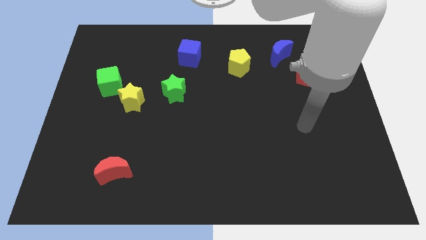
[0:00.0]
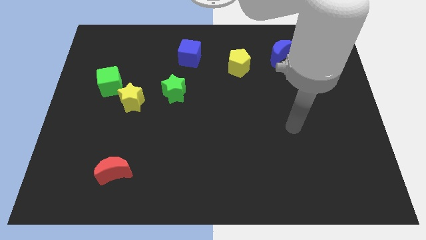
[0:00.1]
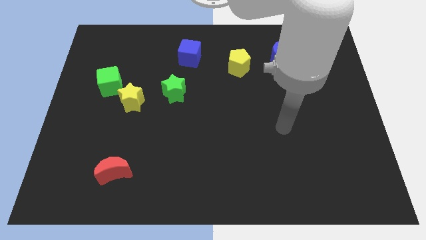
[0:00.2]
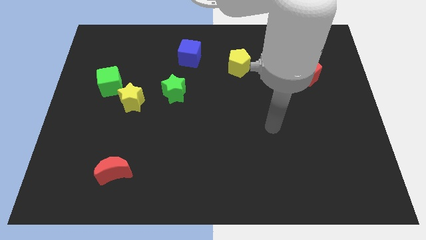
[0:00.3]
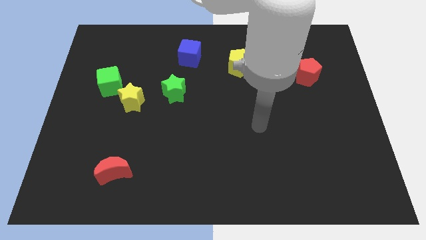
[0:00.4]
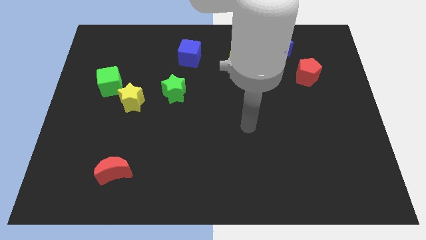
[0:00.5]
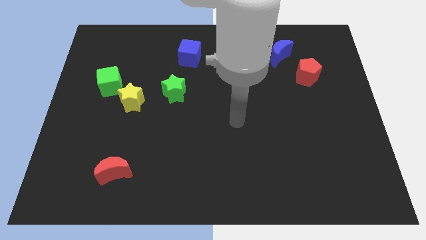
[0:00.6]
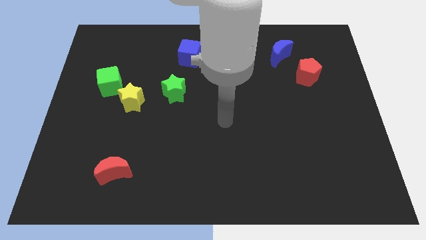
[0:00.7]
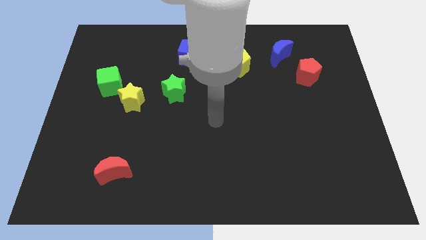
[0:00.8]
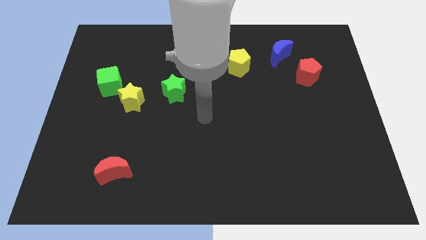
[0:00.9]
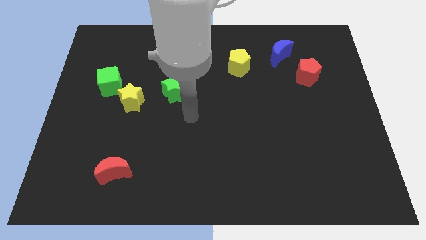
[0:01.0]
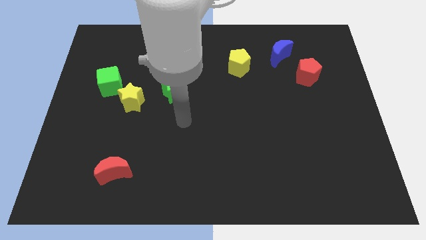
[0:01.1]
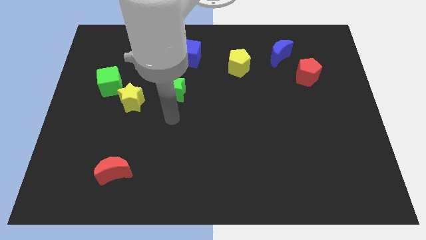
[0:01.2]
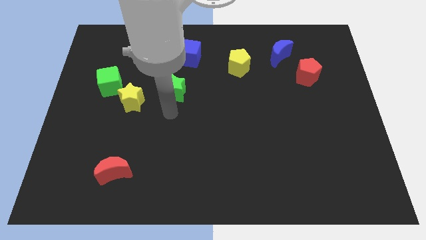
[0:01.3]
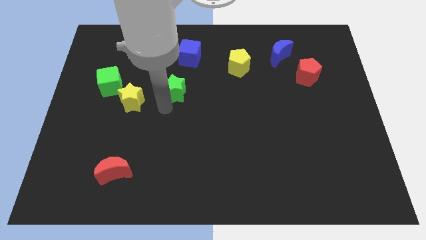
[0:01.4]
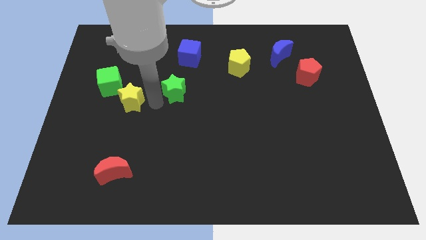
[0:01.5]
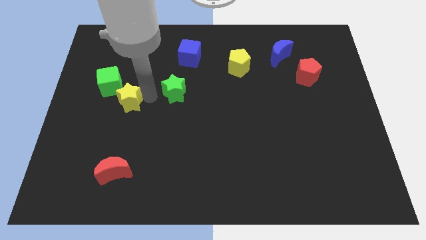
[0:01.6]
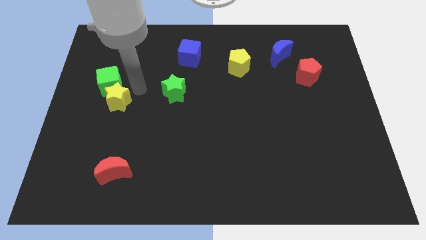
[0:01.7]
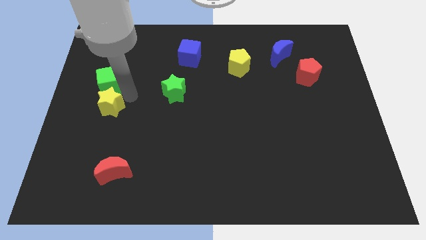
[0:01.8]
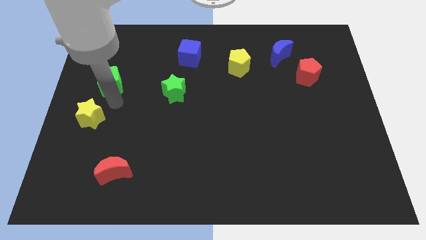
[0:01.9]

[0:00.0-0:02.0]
separate the green cube from the yellow star

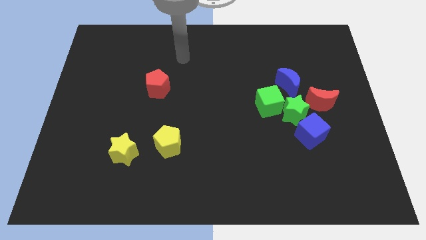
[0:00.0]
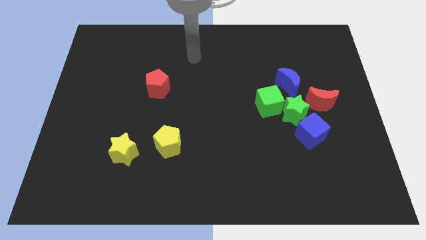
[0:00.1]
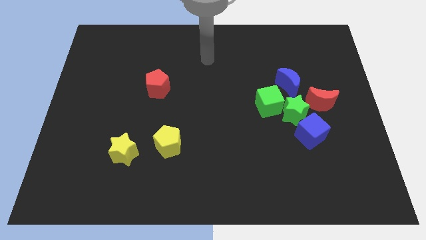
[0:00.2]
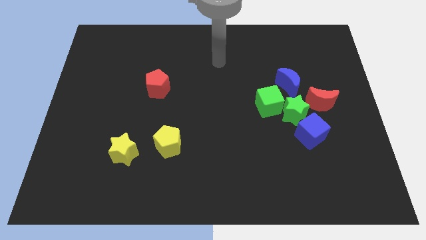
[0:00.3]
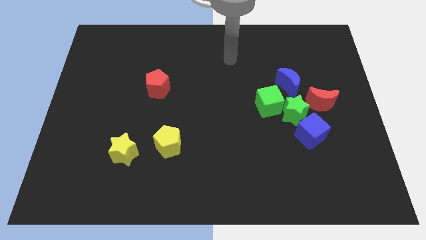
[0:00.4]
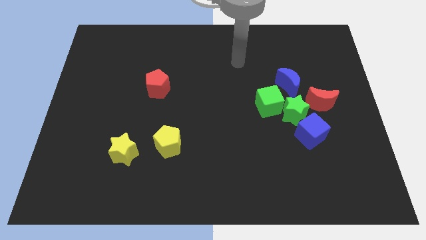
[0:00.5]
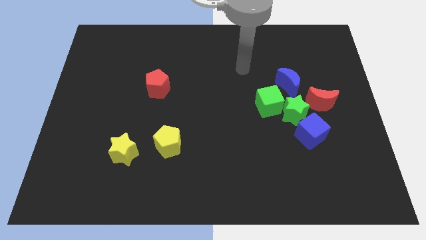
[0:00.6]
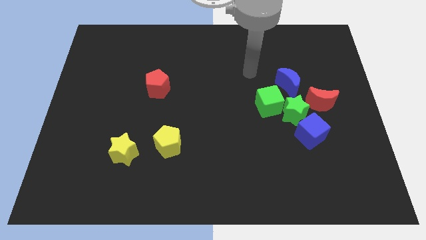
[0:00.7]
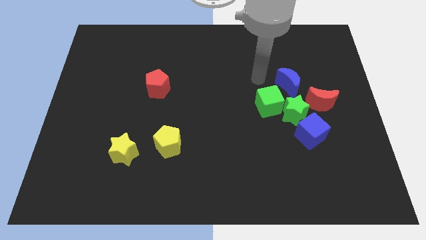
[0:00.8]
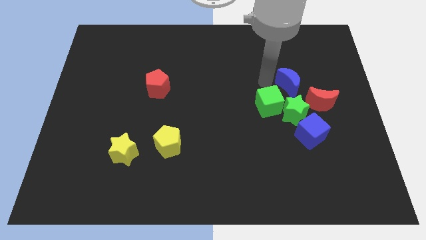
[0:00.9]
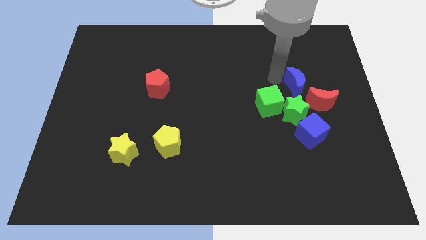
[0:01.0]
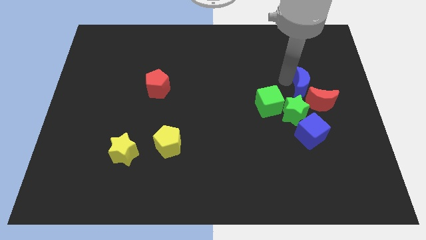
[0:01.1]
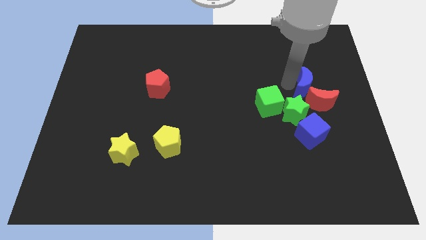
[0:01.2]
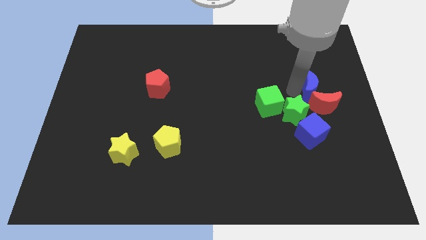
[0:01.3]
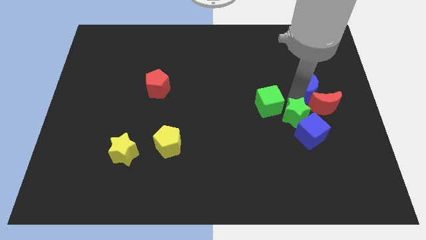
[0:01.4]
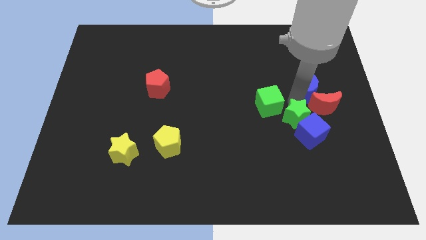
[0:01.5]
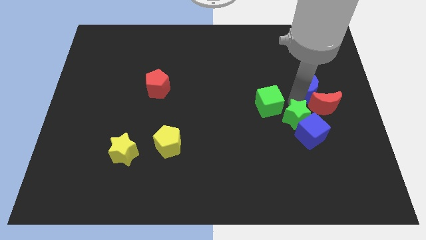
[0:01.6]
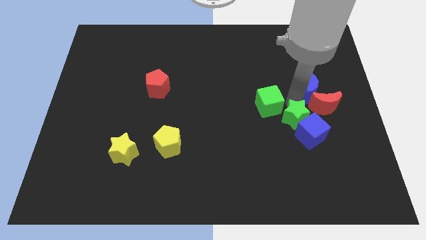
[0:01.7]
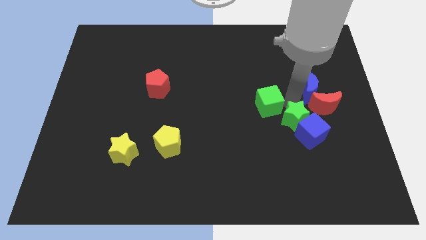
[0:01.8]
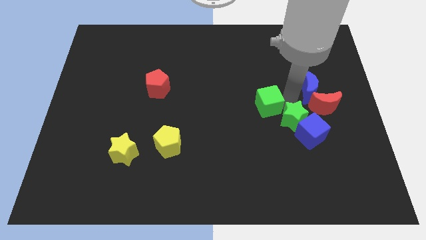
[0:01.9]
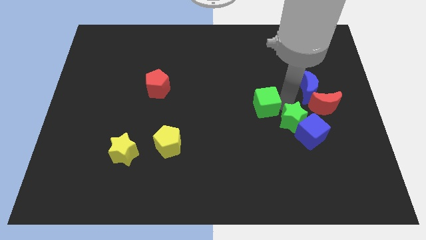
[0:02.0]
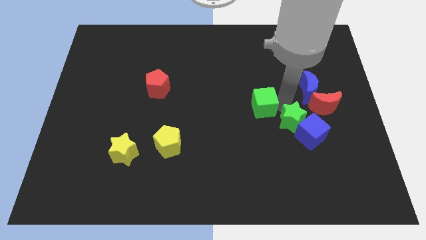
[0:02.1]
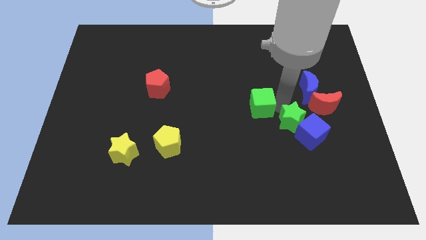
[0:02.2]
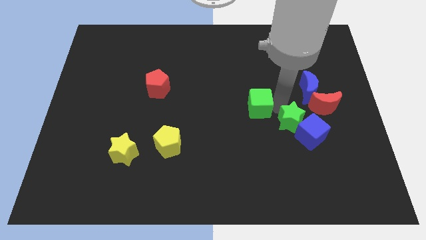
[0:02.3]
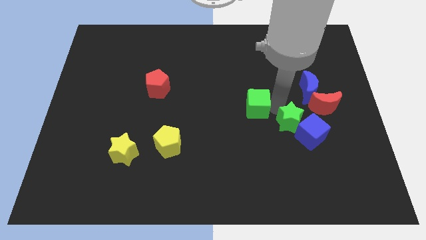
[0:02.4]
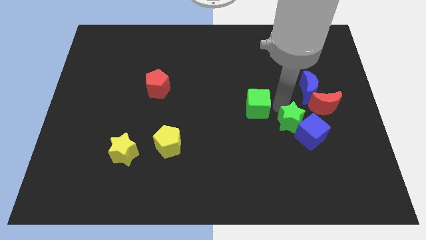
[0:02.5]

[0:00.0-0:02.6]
separate the green cube from the green star and blue moon

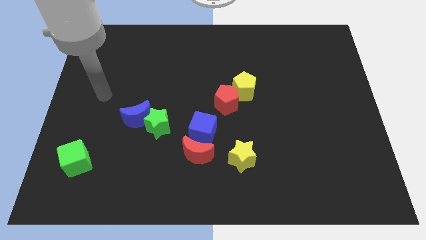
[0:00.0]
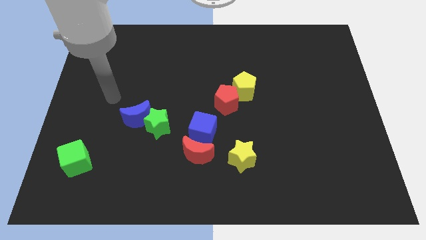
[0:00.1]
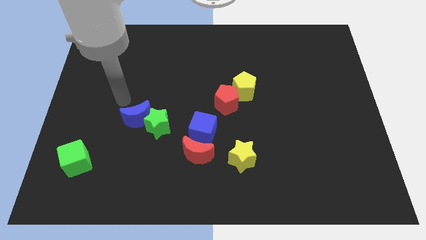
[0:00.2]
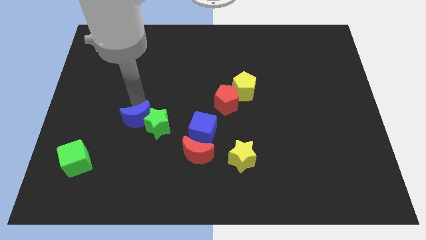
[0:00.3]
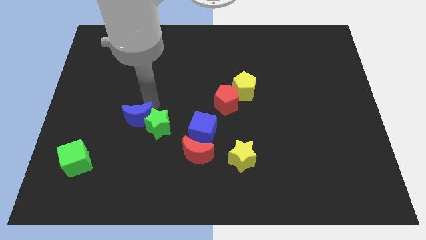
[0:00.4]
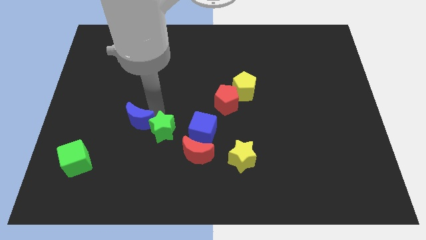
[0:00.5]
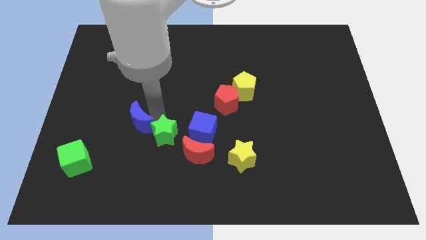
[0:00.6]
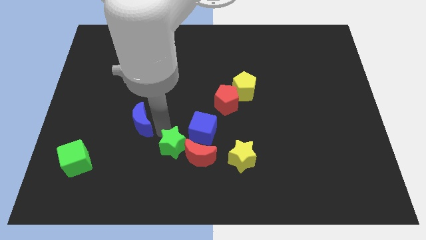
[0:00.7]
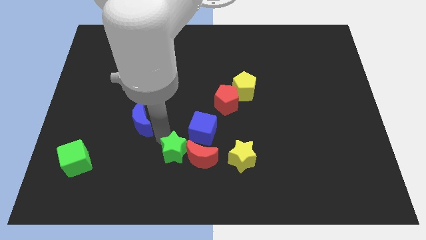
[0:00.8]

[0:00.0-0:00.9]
move the blue moon away from the green star

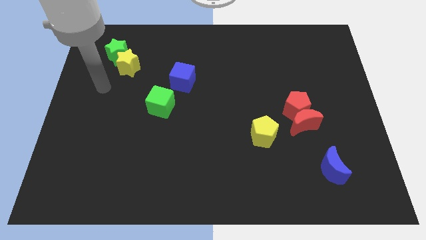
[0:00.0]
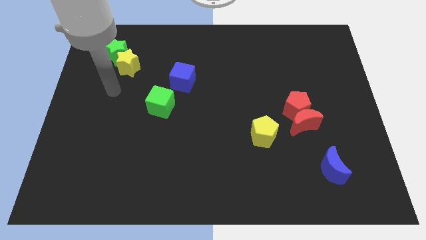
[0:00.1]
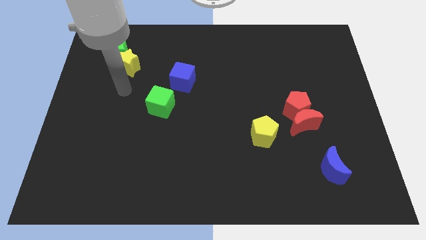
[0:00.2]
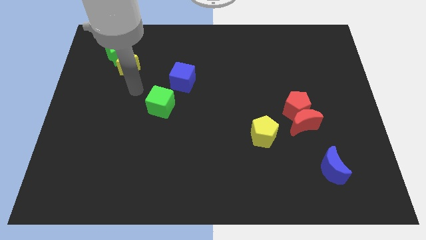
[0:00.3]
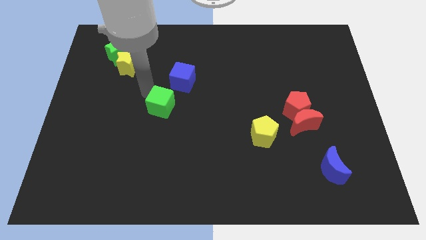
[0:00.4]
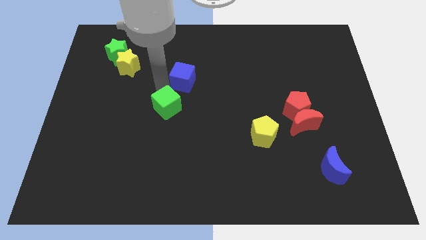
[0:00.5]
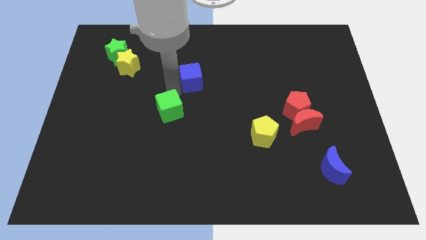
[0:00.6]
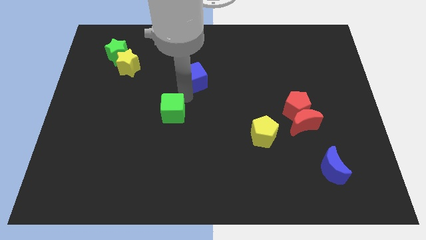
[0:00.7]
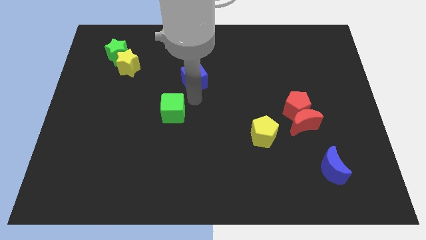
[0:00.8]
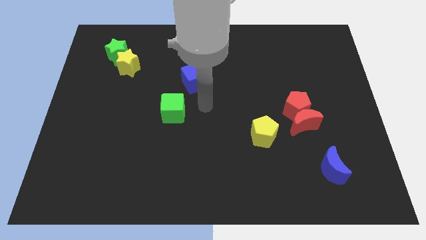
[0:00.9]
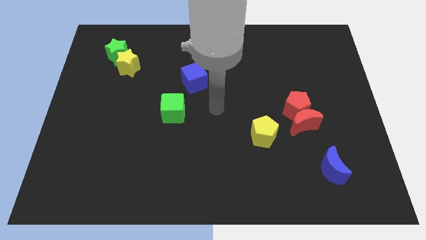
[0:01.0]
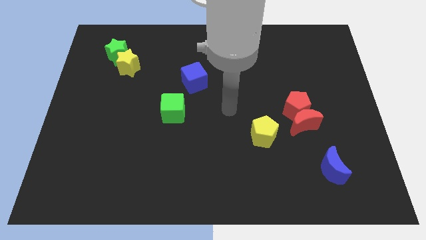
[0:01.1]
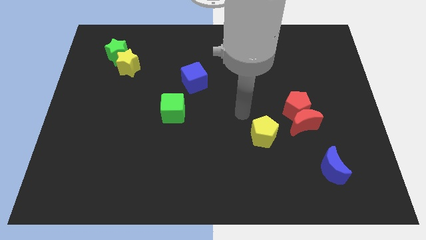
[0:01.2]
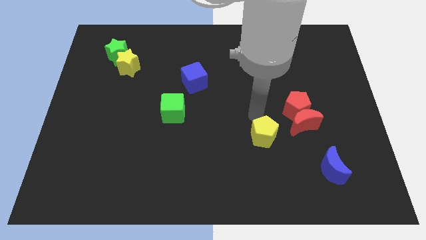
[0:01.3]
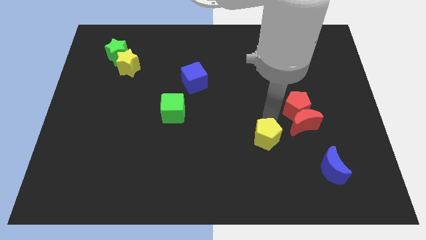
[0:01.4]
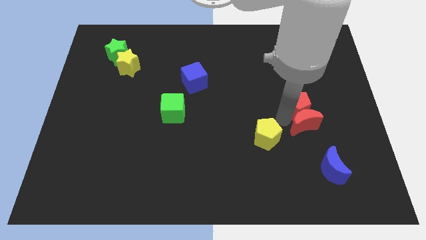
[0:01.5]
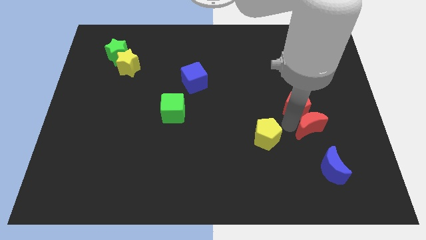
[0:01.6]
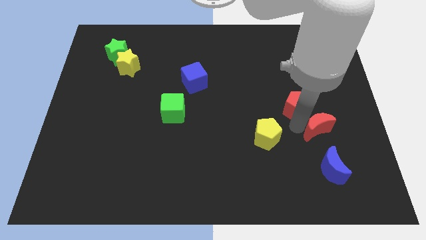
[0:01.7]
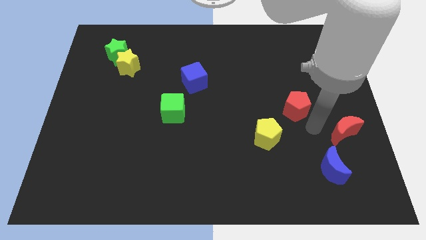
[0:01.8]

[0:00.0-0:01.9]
pull the red pentagon apart from the red moon

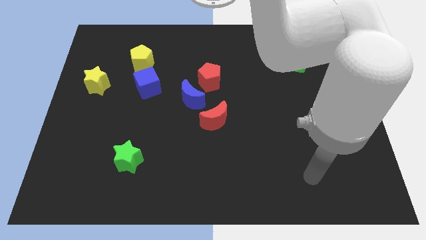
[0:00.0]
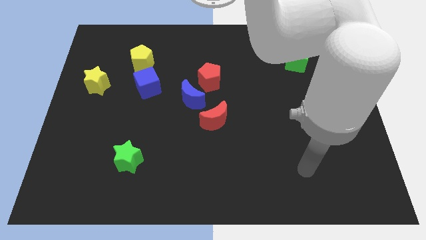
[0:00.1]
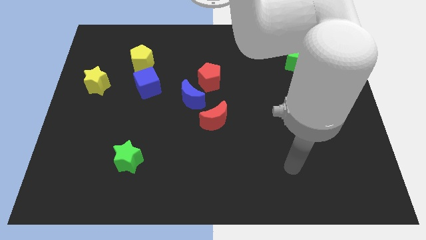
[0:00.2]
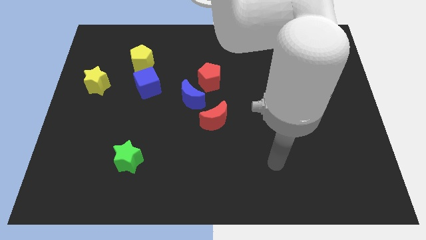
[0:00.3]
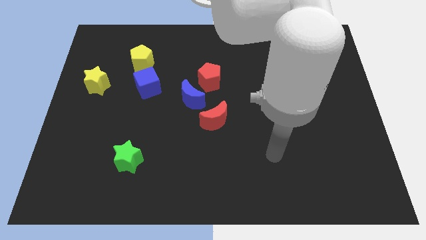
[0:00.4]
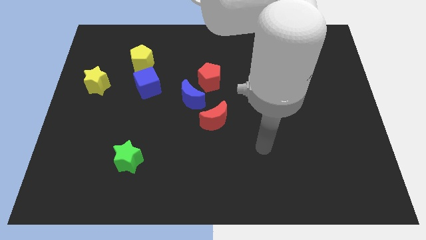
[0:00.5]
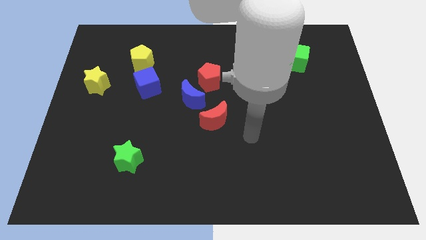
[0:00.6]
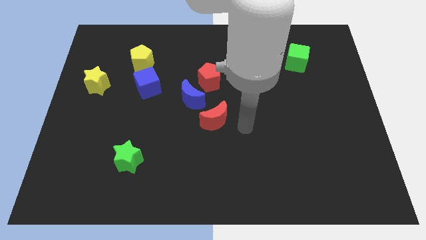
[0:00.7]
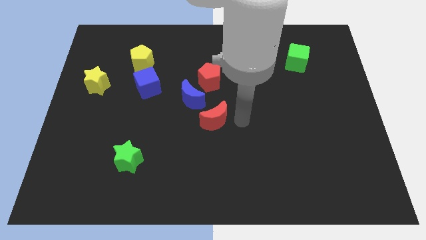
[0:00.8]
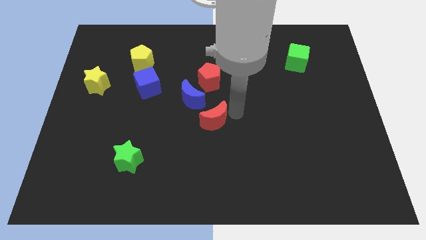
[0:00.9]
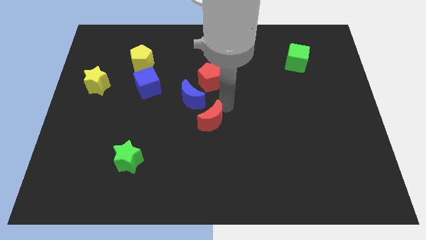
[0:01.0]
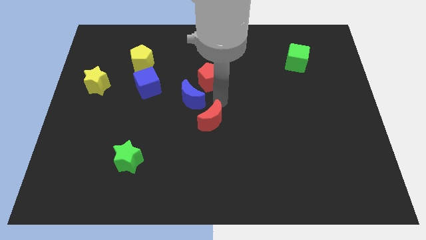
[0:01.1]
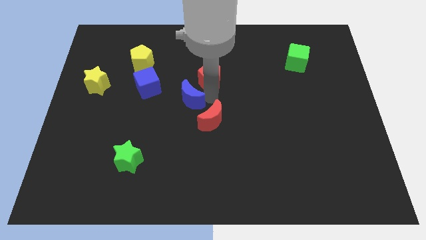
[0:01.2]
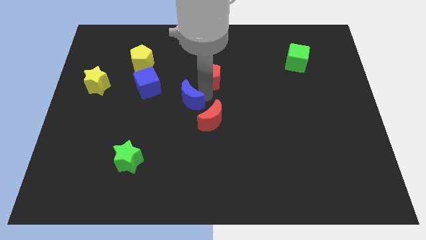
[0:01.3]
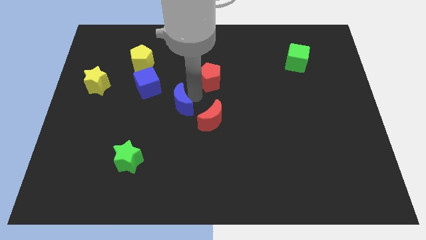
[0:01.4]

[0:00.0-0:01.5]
move the red pentagon away from the blue moon

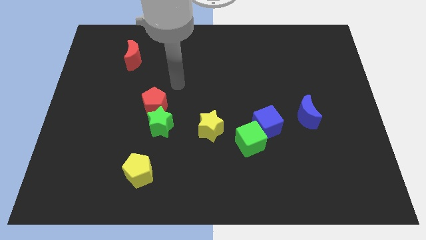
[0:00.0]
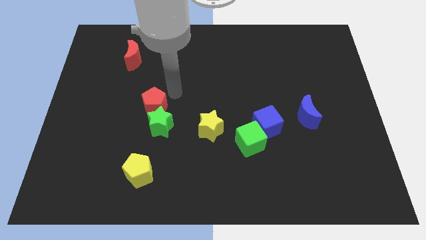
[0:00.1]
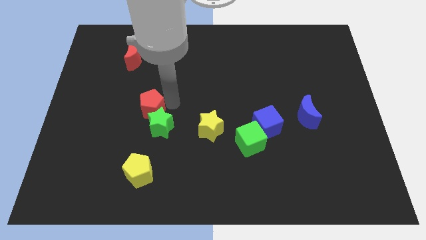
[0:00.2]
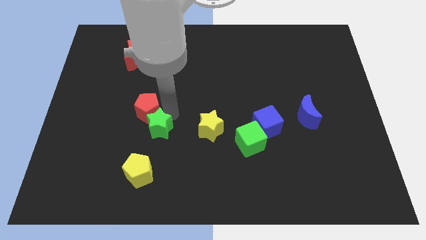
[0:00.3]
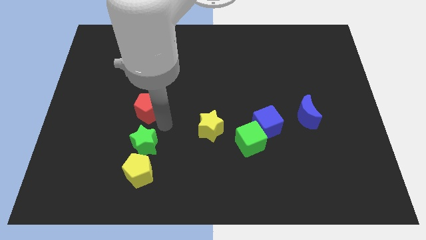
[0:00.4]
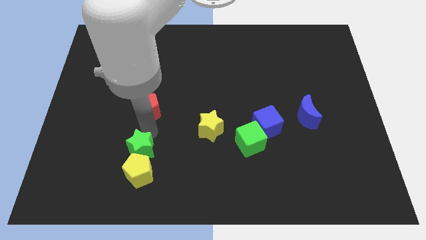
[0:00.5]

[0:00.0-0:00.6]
move the red pentagon away from the green star
